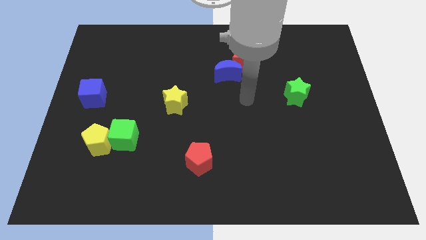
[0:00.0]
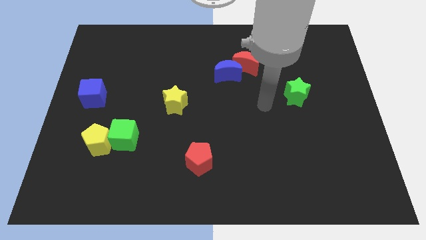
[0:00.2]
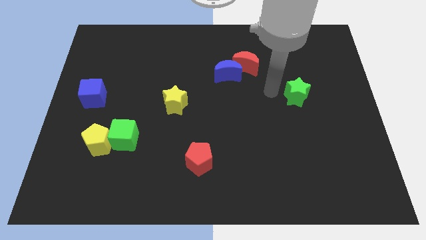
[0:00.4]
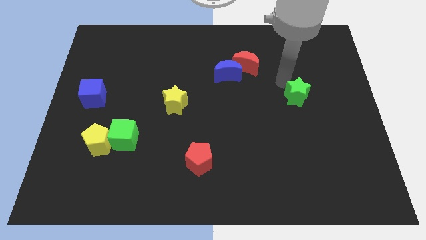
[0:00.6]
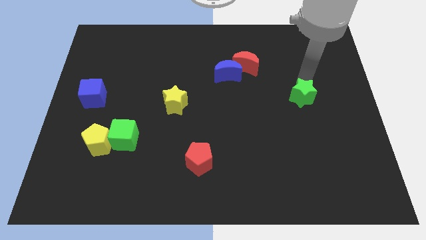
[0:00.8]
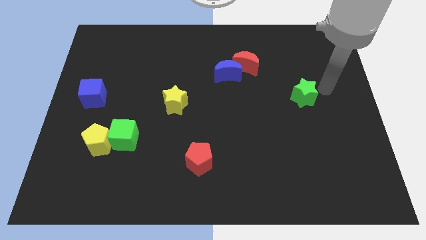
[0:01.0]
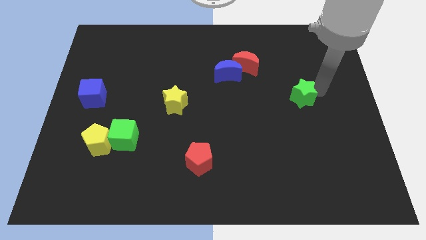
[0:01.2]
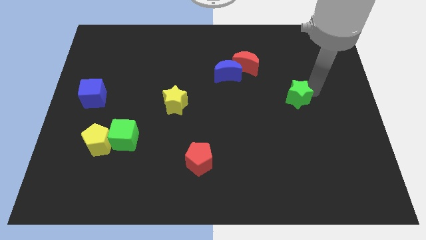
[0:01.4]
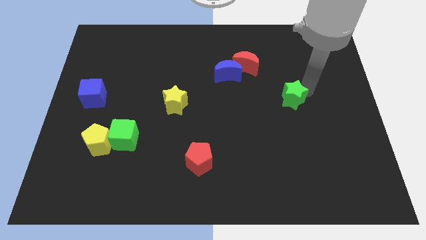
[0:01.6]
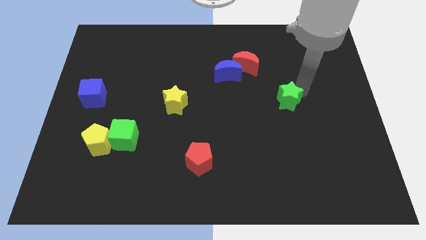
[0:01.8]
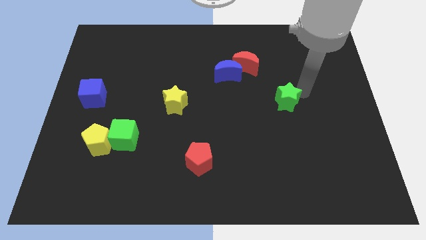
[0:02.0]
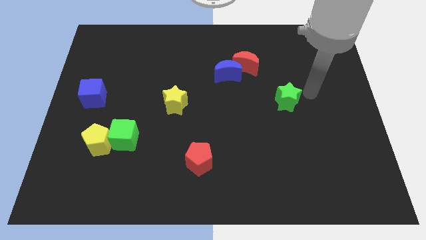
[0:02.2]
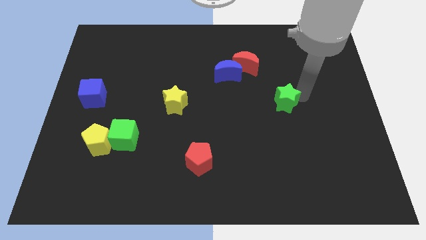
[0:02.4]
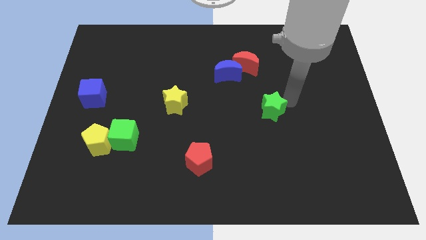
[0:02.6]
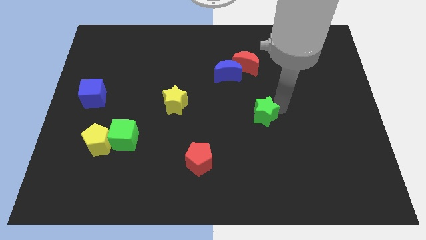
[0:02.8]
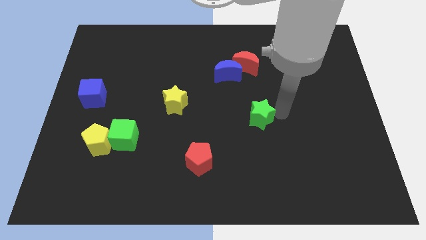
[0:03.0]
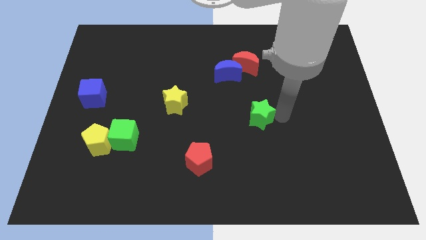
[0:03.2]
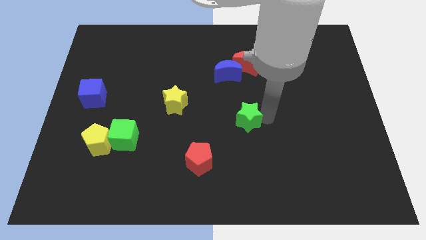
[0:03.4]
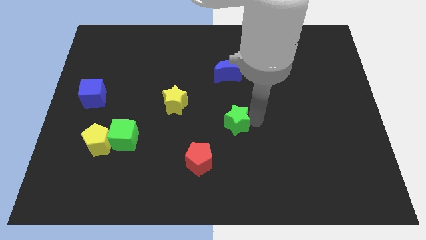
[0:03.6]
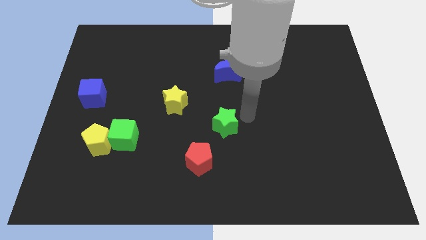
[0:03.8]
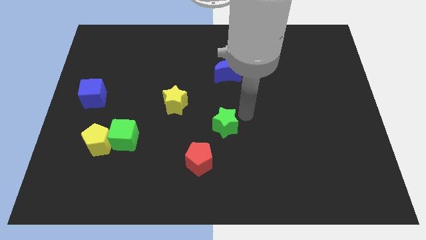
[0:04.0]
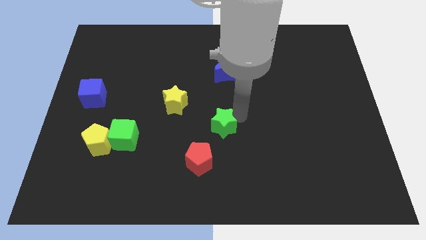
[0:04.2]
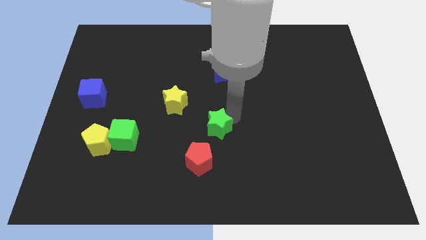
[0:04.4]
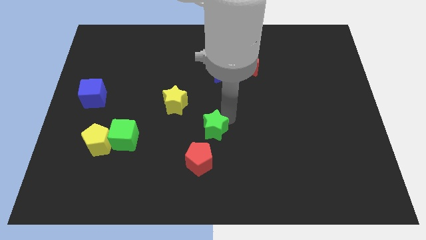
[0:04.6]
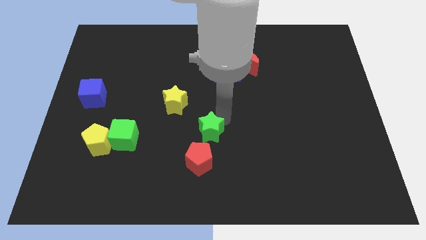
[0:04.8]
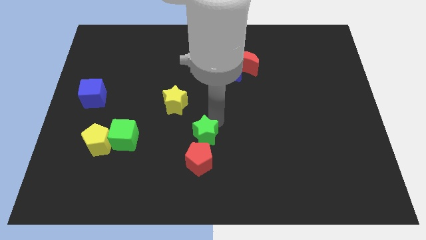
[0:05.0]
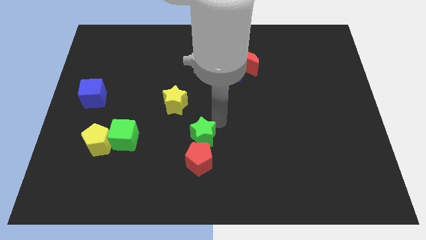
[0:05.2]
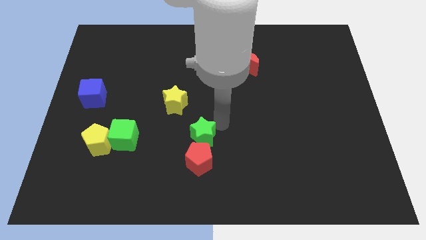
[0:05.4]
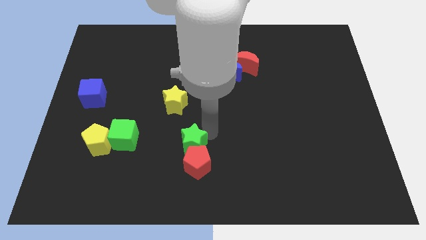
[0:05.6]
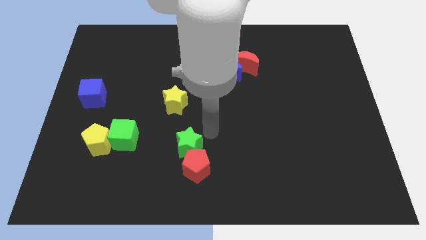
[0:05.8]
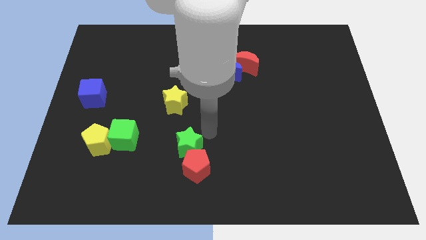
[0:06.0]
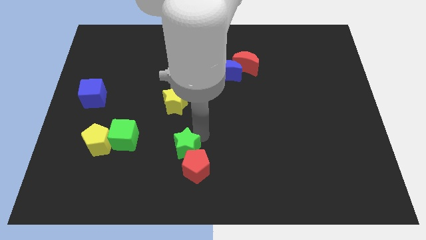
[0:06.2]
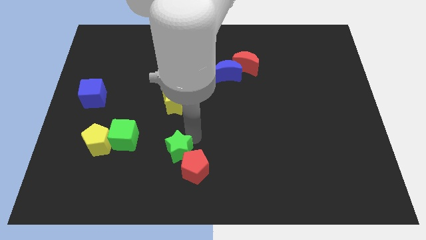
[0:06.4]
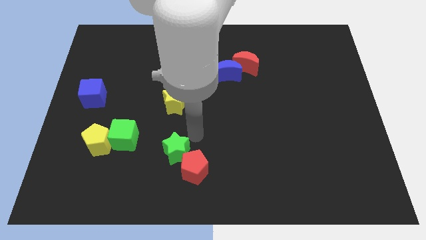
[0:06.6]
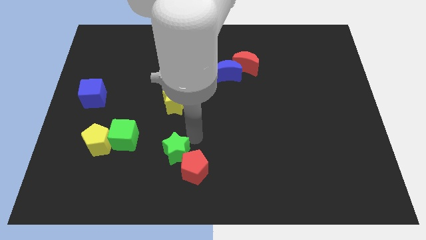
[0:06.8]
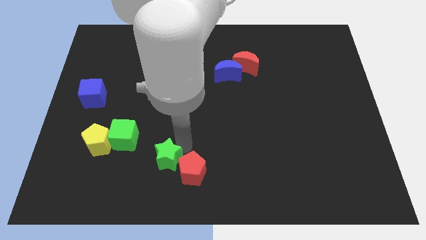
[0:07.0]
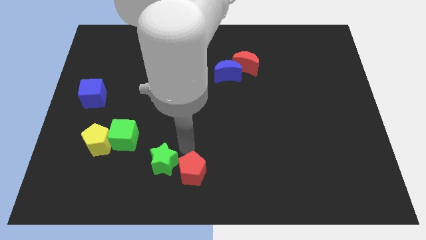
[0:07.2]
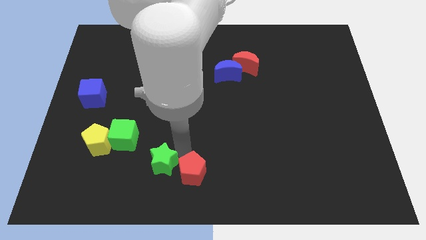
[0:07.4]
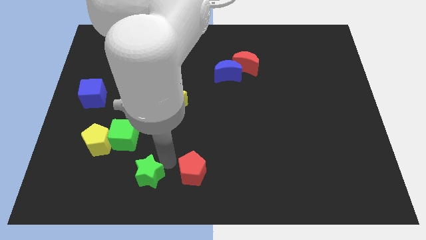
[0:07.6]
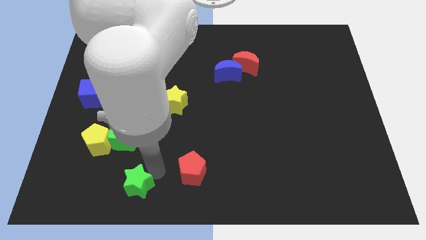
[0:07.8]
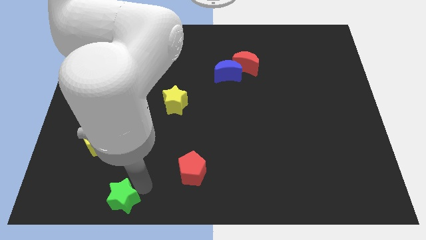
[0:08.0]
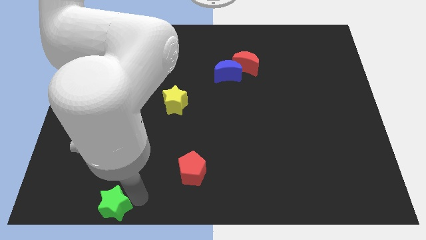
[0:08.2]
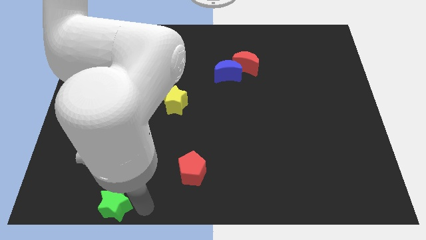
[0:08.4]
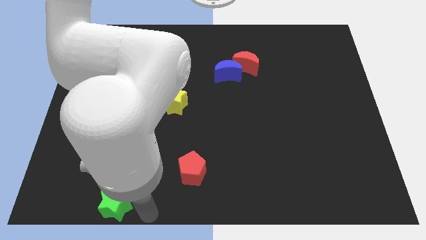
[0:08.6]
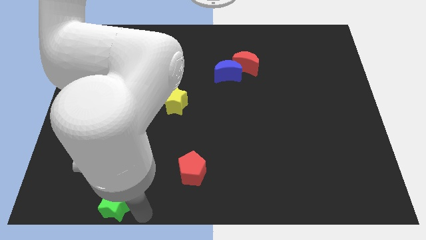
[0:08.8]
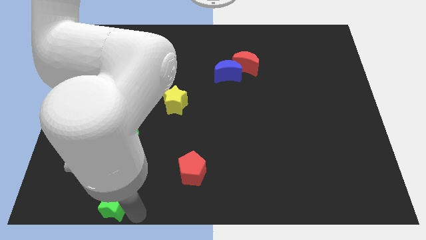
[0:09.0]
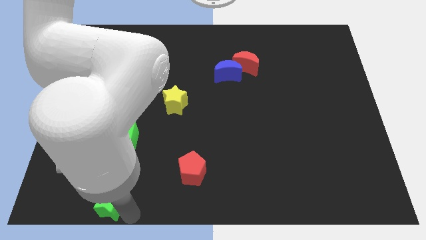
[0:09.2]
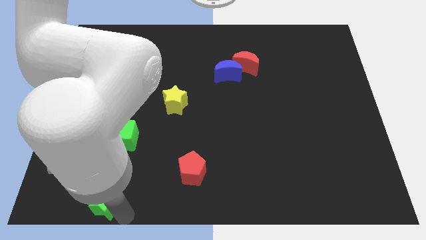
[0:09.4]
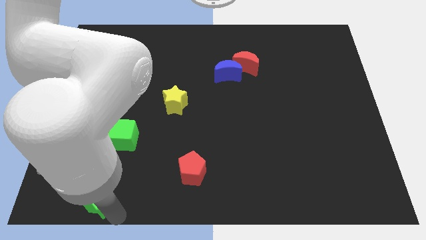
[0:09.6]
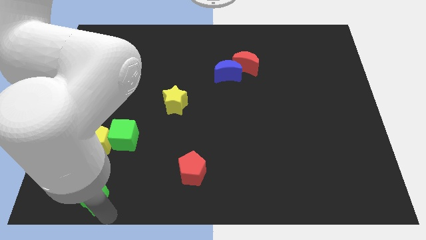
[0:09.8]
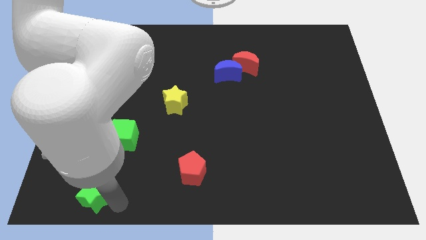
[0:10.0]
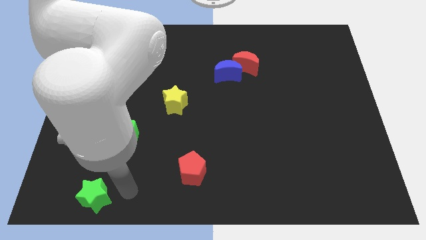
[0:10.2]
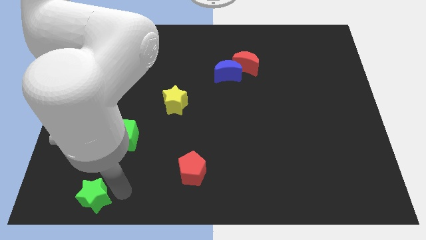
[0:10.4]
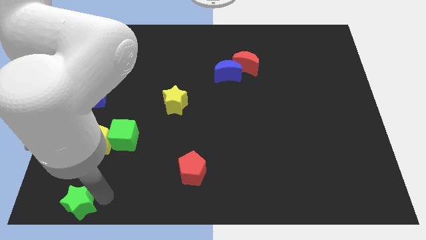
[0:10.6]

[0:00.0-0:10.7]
push the green star to the lower left corner
